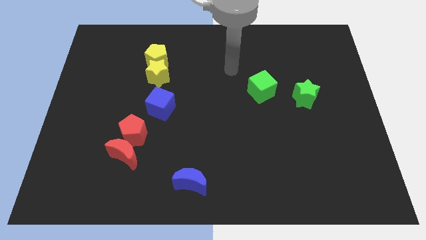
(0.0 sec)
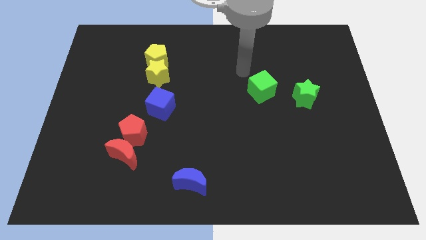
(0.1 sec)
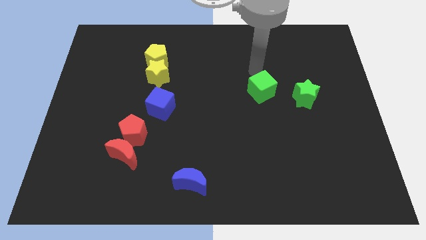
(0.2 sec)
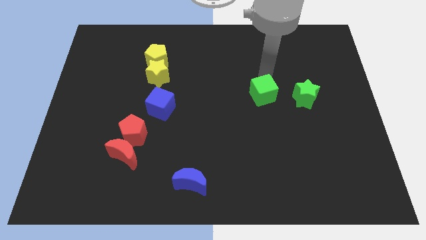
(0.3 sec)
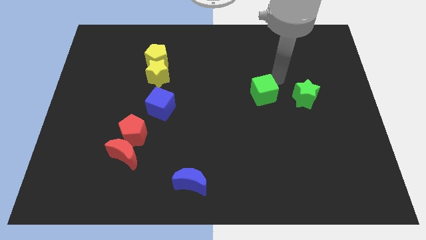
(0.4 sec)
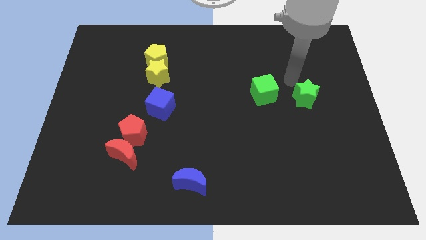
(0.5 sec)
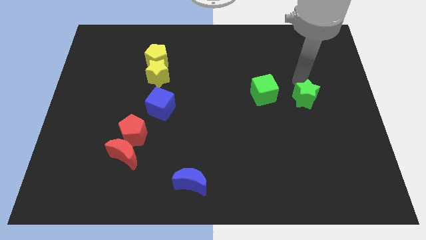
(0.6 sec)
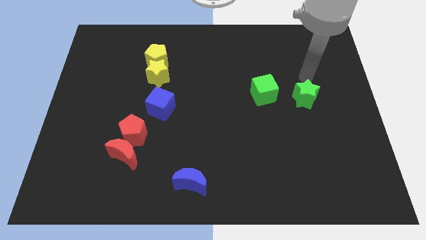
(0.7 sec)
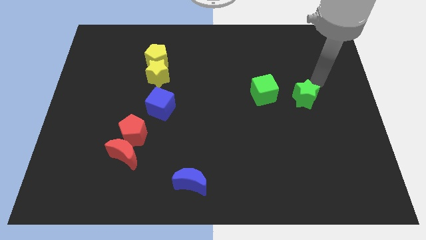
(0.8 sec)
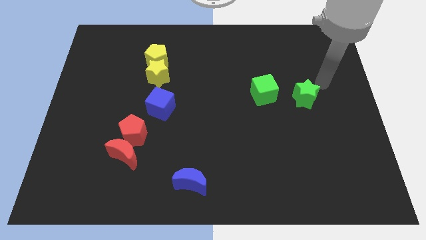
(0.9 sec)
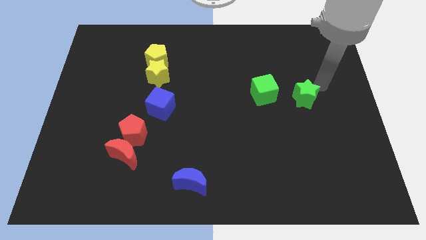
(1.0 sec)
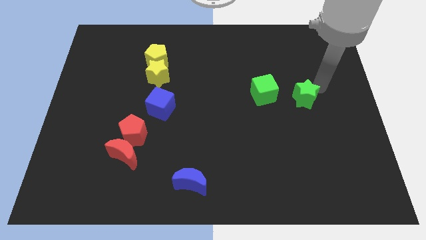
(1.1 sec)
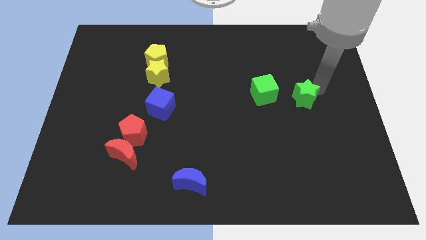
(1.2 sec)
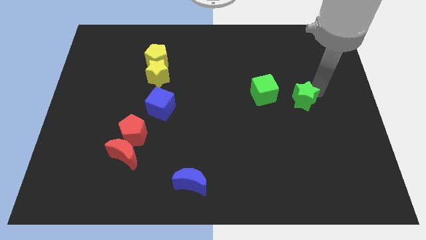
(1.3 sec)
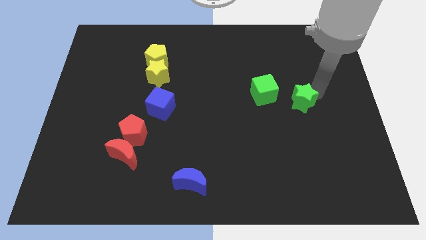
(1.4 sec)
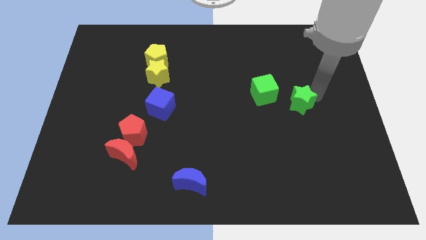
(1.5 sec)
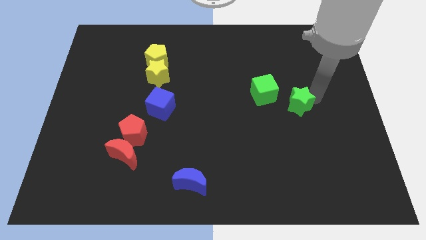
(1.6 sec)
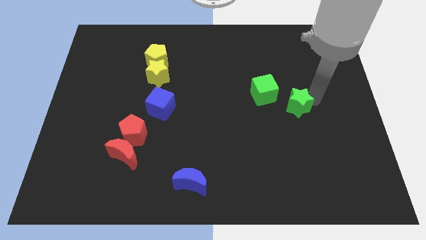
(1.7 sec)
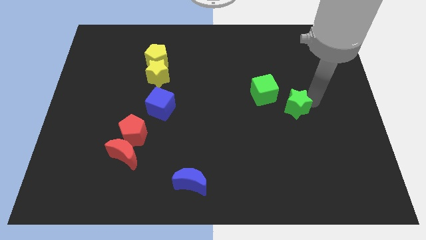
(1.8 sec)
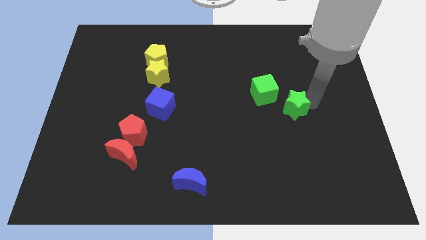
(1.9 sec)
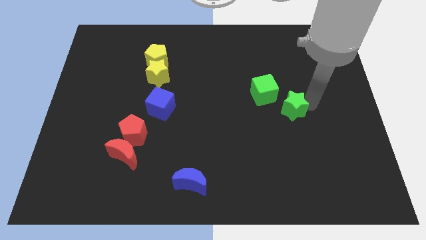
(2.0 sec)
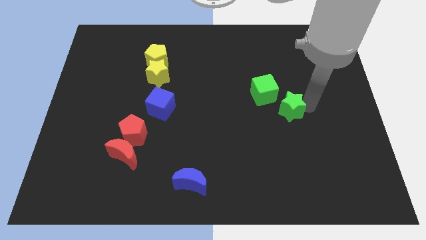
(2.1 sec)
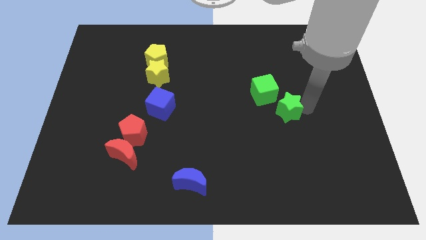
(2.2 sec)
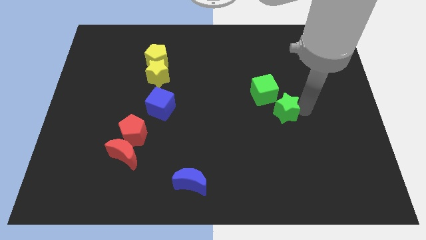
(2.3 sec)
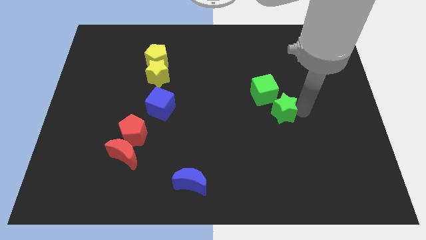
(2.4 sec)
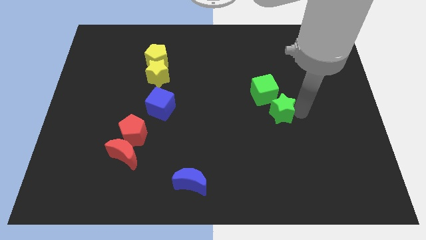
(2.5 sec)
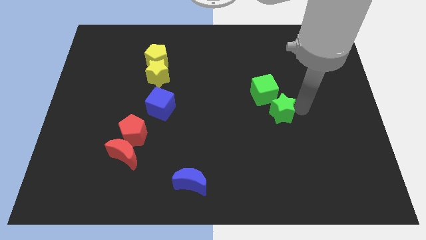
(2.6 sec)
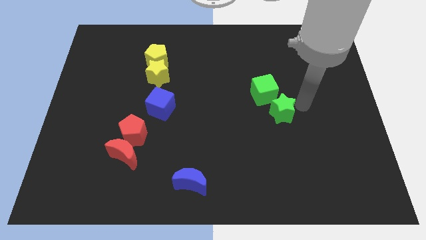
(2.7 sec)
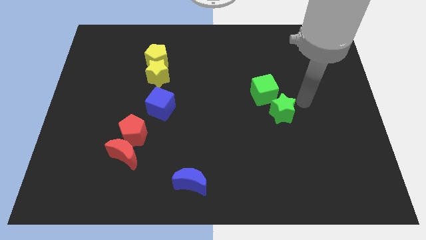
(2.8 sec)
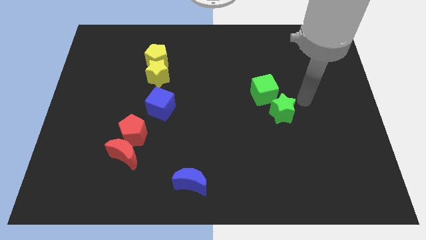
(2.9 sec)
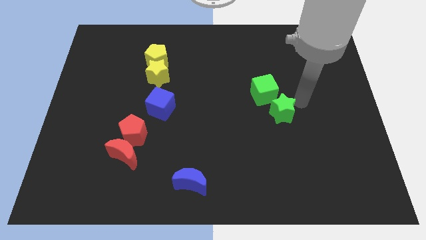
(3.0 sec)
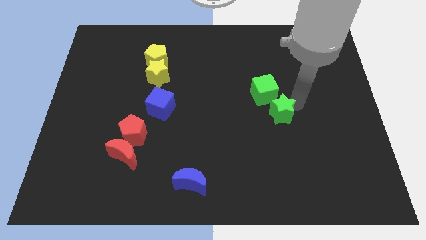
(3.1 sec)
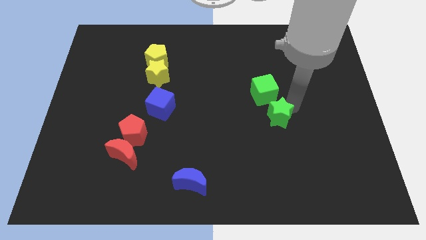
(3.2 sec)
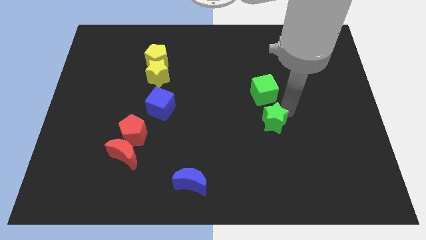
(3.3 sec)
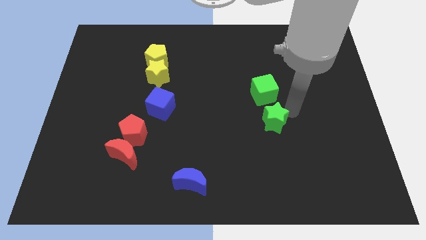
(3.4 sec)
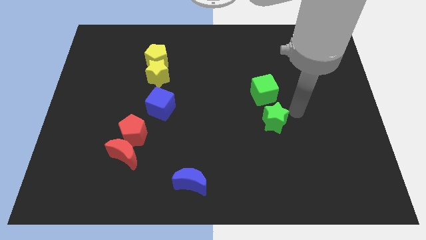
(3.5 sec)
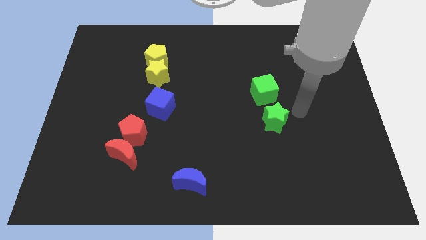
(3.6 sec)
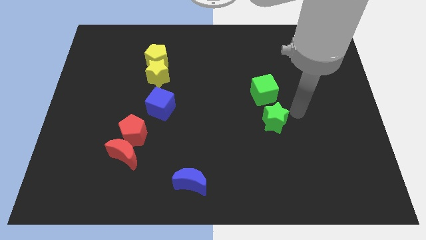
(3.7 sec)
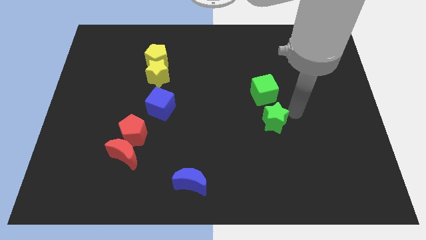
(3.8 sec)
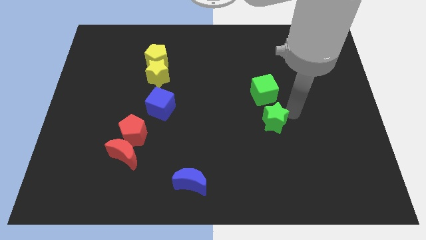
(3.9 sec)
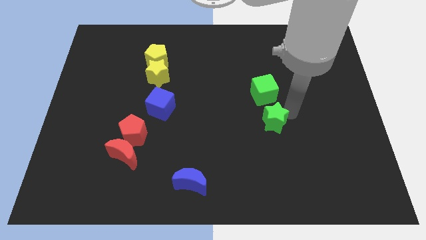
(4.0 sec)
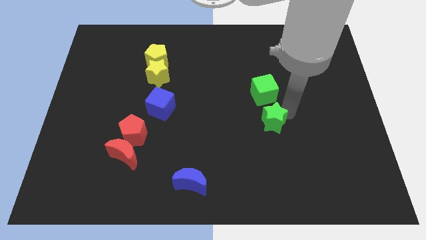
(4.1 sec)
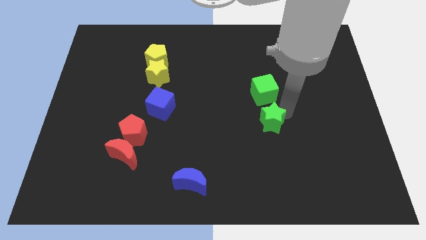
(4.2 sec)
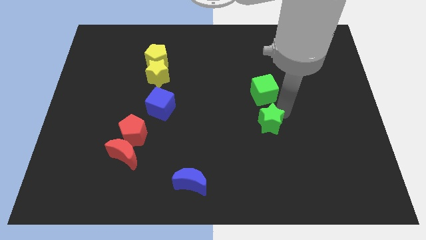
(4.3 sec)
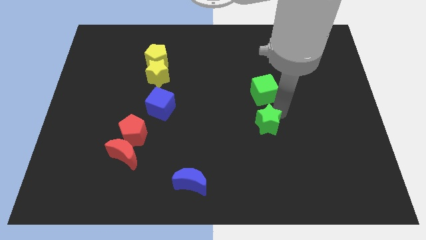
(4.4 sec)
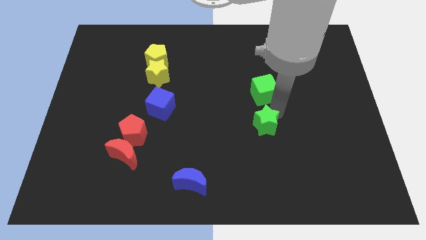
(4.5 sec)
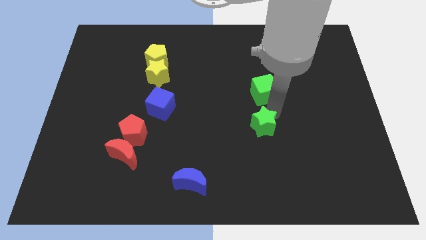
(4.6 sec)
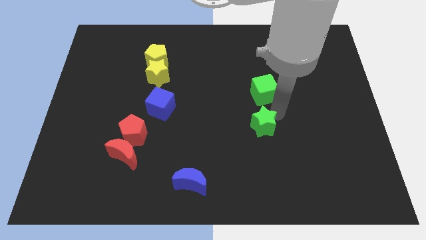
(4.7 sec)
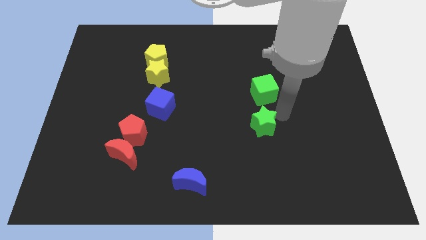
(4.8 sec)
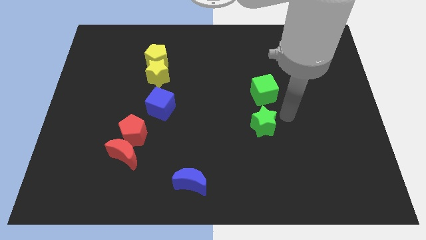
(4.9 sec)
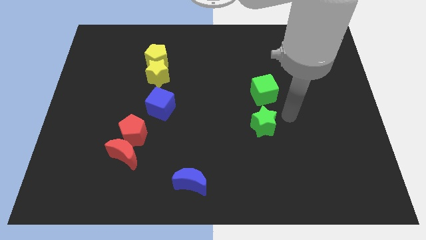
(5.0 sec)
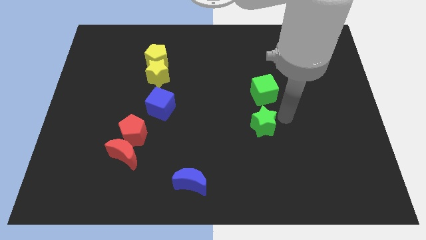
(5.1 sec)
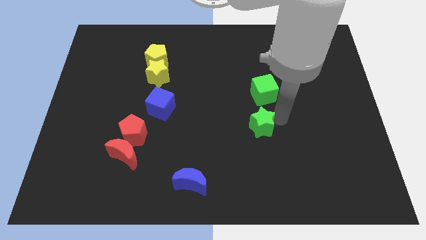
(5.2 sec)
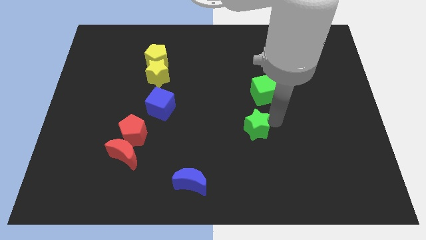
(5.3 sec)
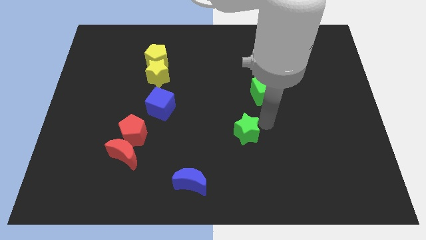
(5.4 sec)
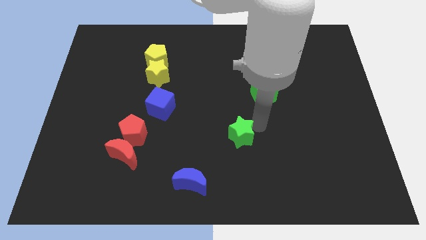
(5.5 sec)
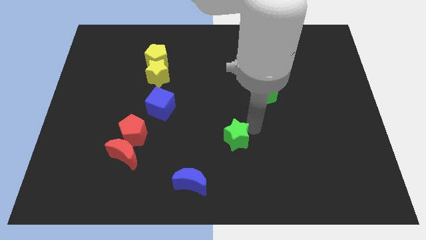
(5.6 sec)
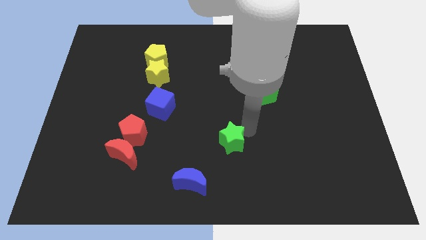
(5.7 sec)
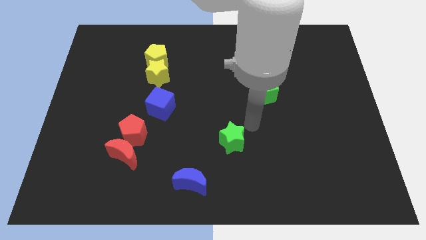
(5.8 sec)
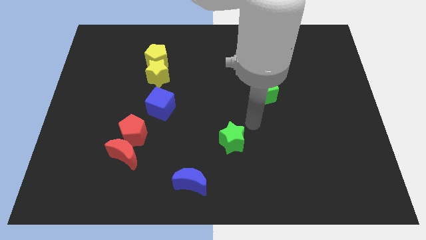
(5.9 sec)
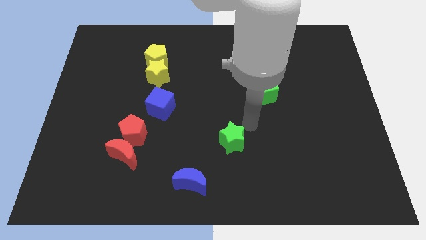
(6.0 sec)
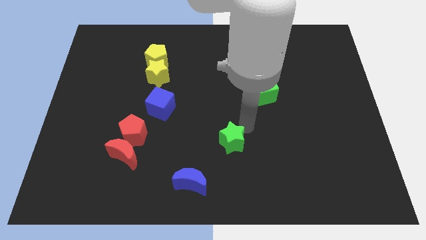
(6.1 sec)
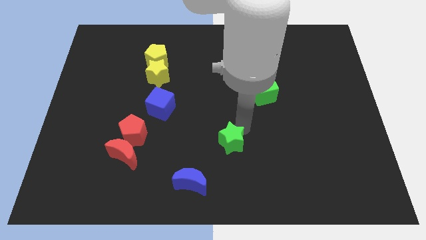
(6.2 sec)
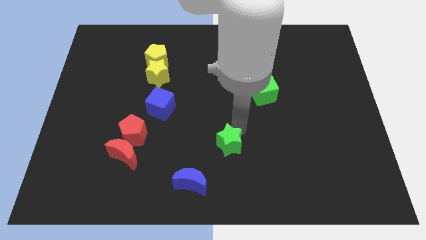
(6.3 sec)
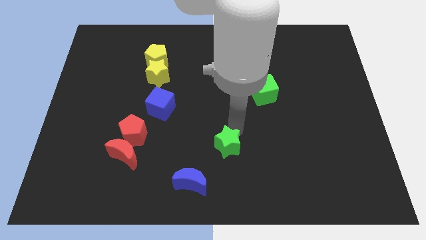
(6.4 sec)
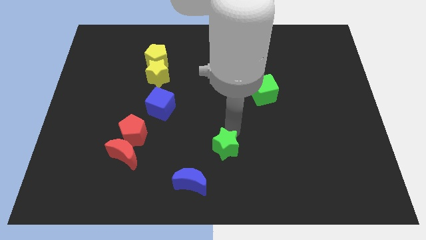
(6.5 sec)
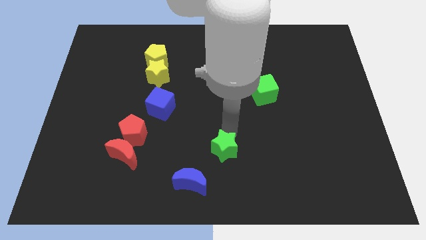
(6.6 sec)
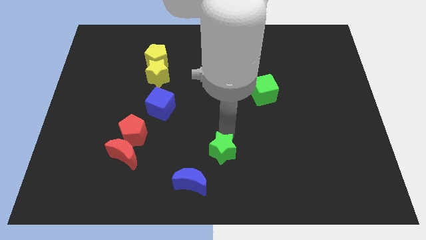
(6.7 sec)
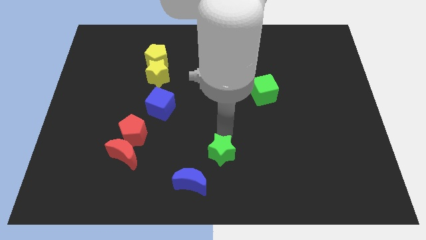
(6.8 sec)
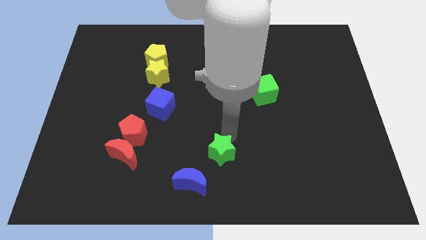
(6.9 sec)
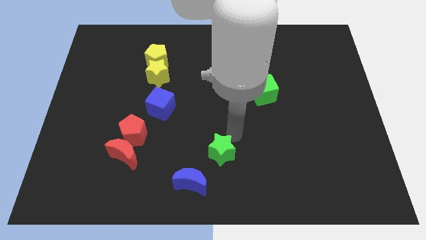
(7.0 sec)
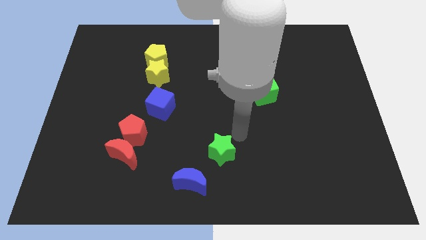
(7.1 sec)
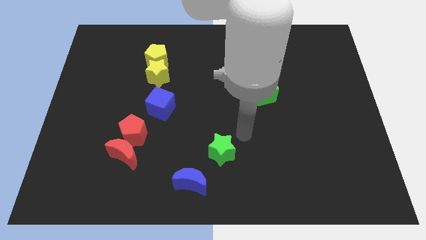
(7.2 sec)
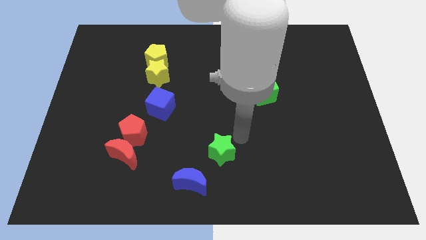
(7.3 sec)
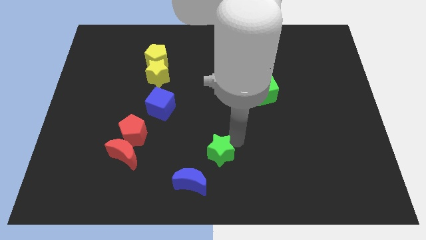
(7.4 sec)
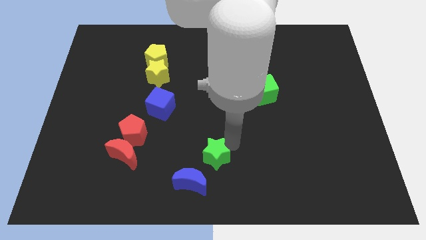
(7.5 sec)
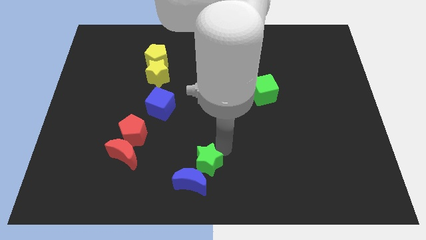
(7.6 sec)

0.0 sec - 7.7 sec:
push the green star towards the blue moon

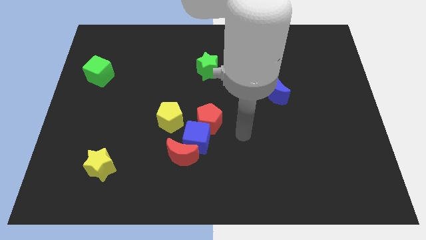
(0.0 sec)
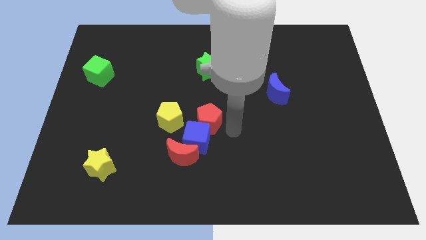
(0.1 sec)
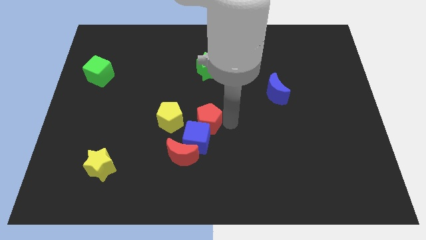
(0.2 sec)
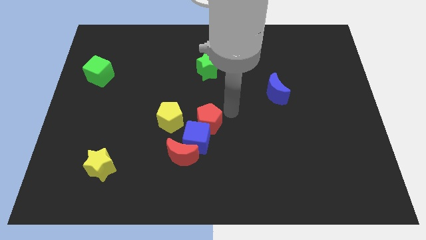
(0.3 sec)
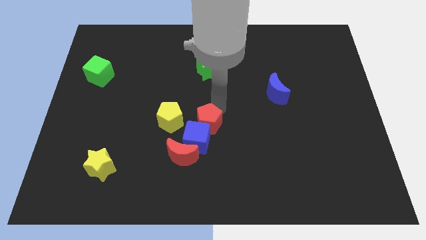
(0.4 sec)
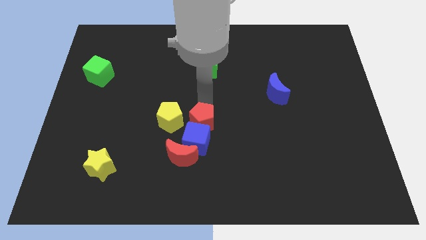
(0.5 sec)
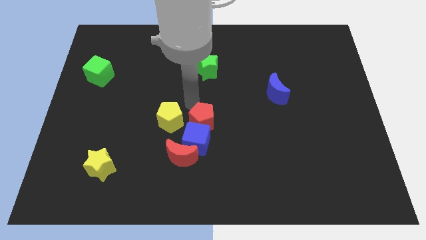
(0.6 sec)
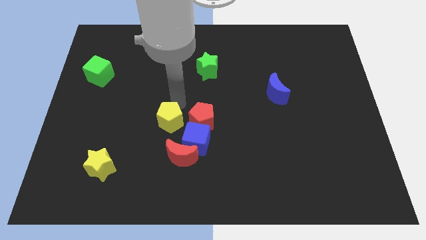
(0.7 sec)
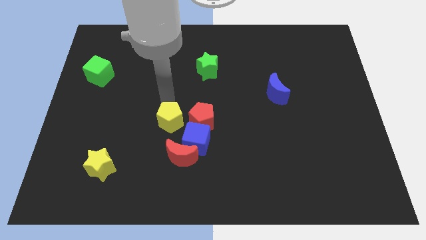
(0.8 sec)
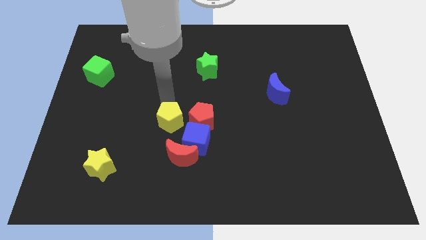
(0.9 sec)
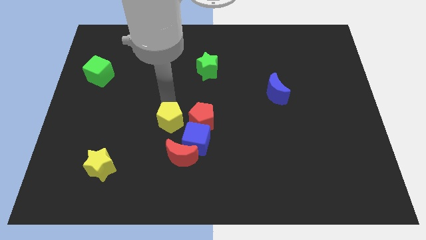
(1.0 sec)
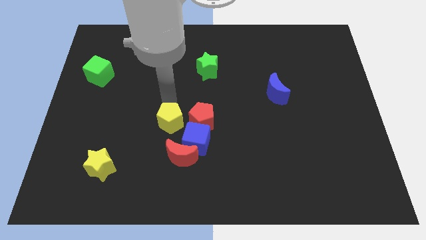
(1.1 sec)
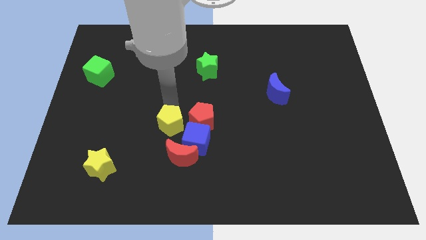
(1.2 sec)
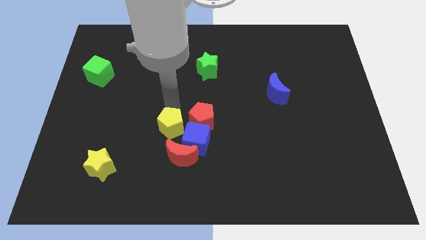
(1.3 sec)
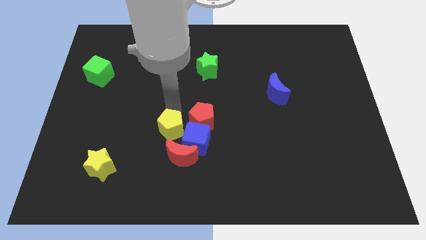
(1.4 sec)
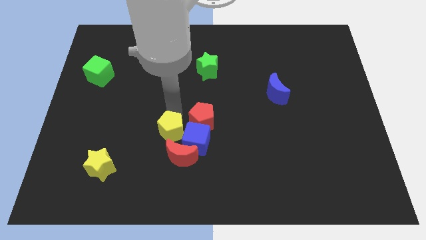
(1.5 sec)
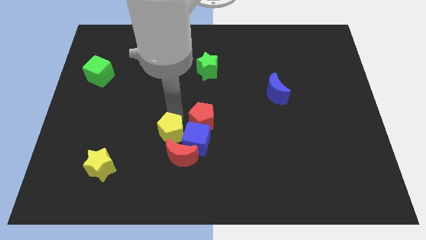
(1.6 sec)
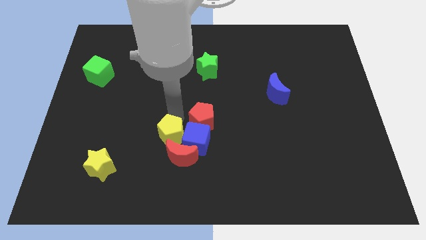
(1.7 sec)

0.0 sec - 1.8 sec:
move the yellow pentagon close to the red moon
